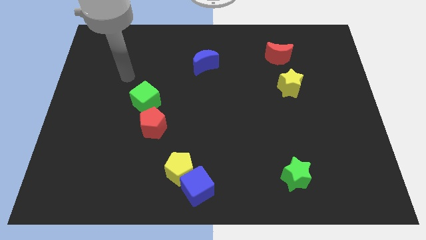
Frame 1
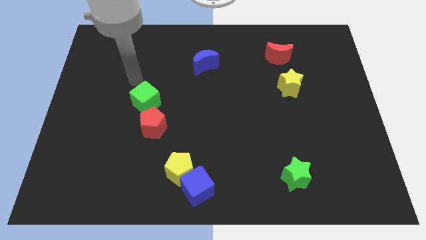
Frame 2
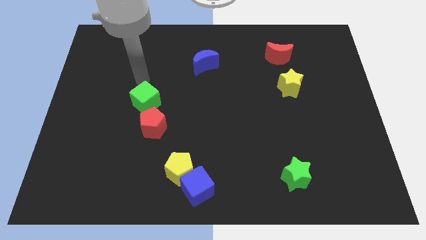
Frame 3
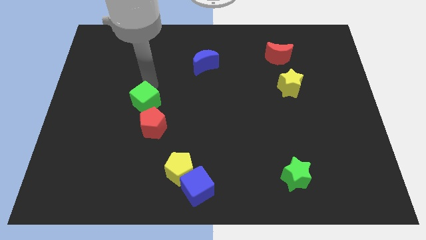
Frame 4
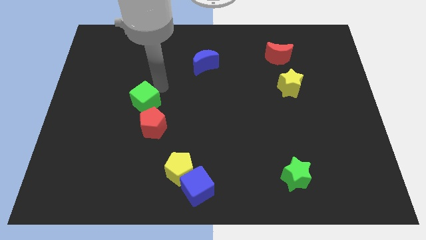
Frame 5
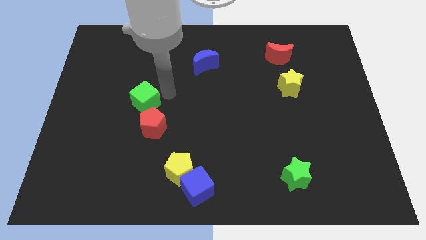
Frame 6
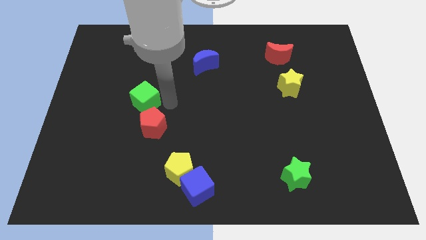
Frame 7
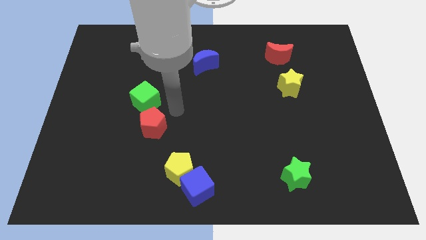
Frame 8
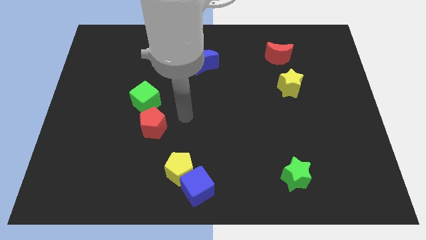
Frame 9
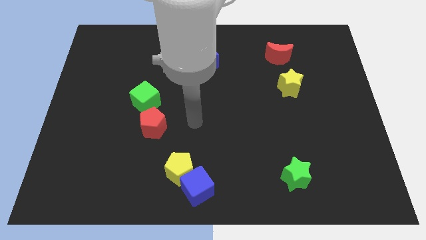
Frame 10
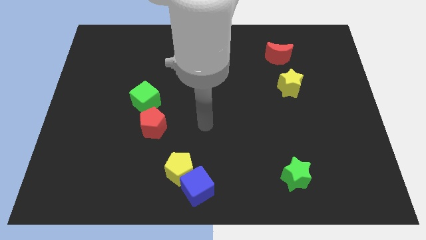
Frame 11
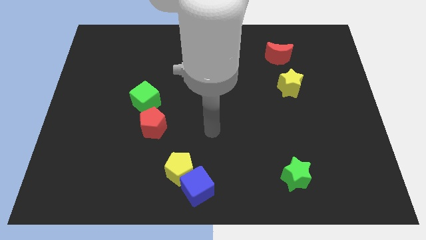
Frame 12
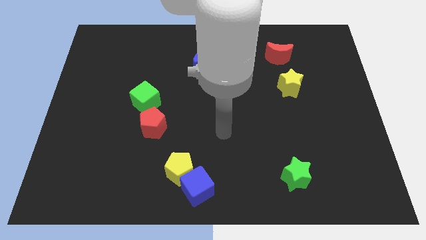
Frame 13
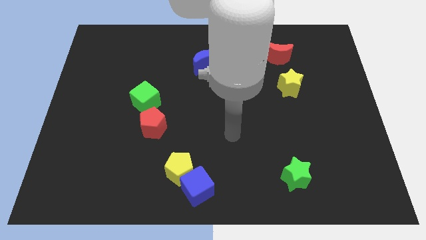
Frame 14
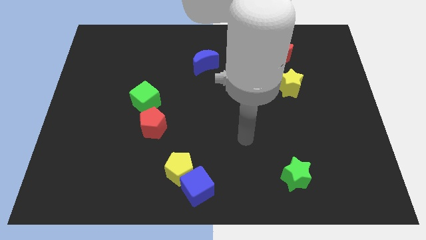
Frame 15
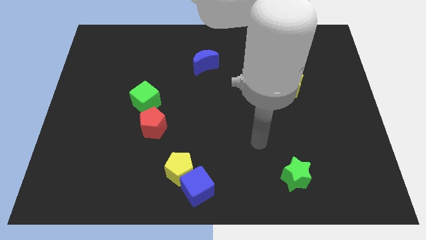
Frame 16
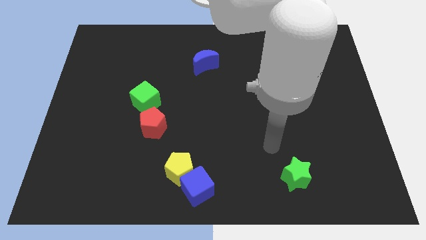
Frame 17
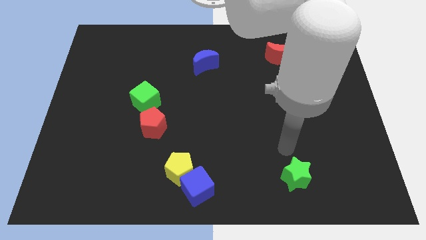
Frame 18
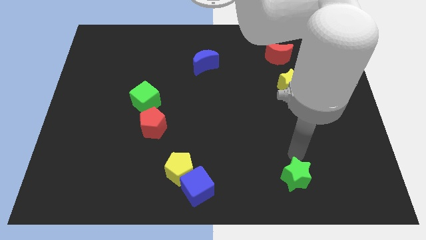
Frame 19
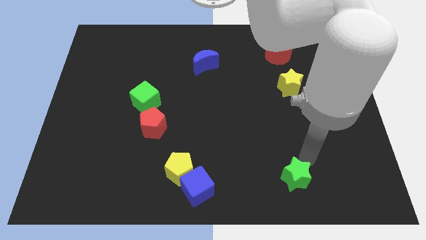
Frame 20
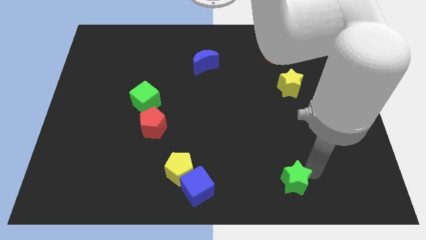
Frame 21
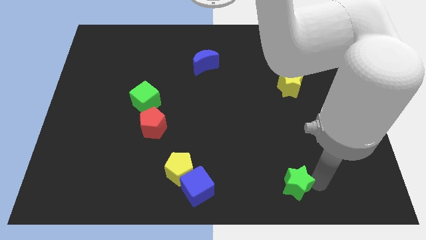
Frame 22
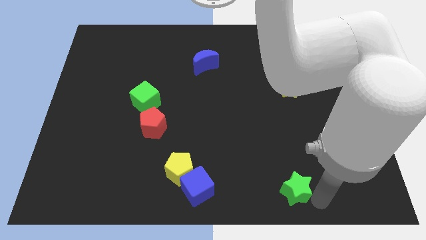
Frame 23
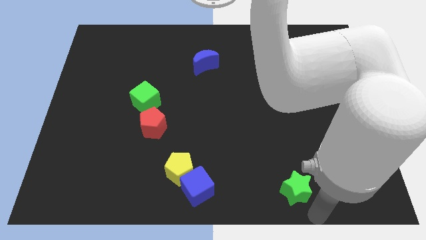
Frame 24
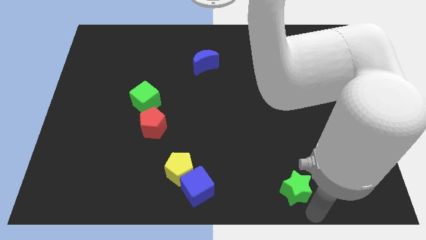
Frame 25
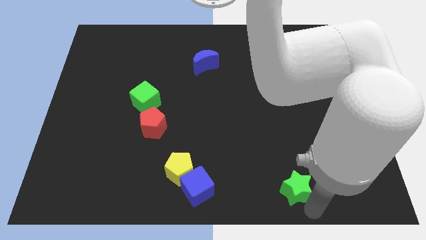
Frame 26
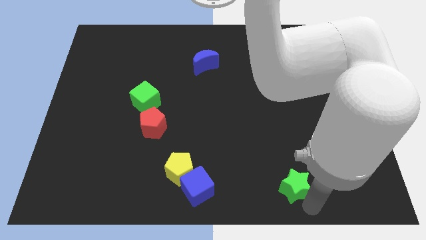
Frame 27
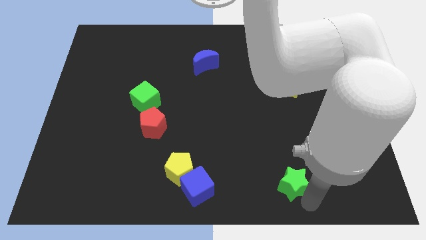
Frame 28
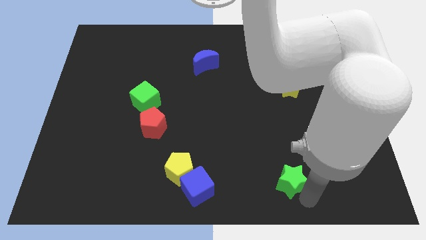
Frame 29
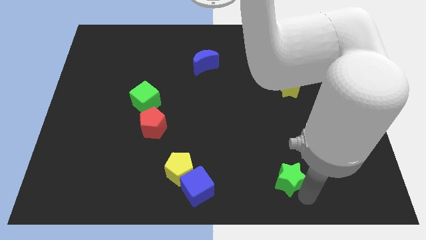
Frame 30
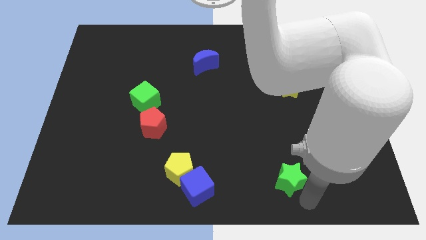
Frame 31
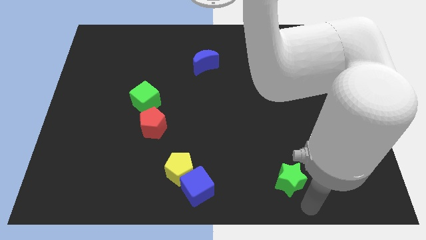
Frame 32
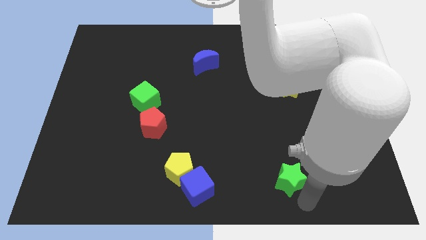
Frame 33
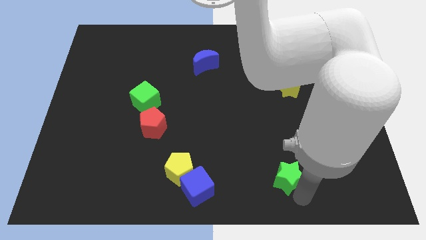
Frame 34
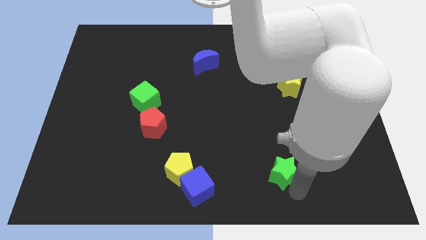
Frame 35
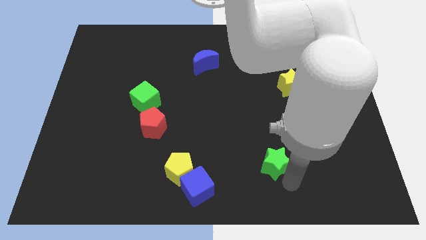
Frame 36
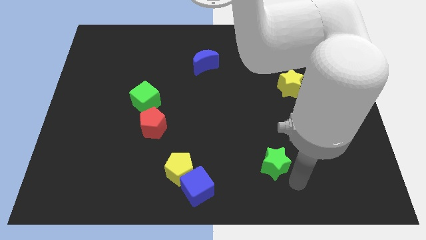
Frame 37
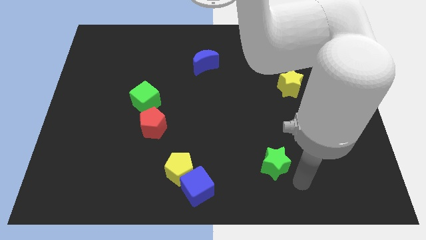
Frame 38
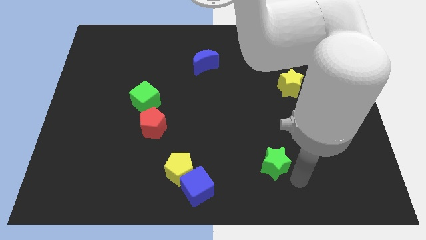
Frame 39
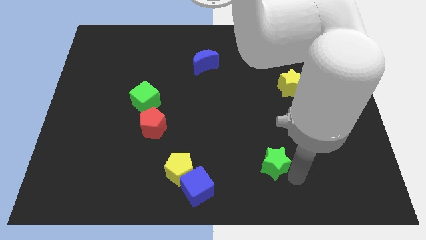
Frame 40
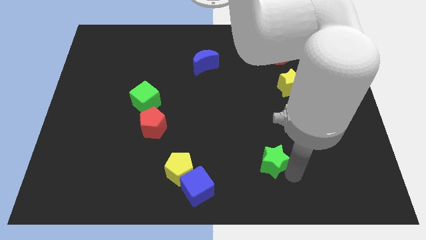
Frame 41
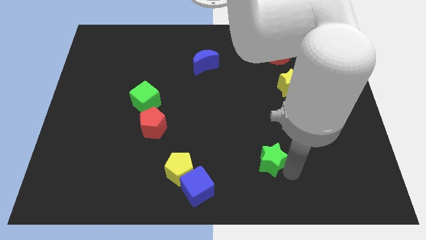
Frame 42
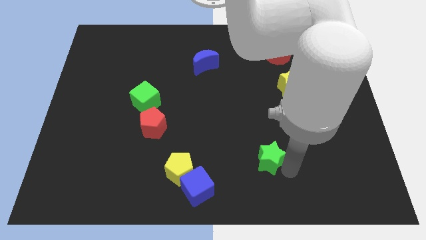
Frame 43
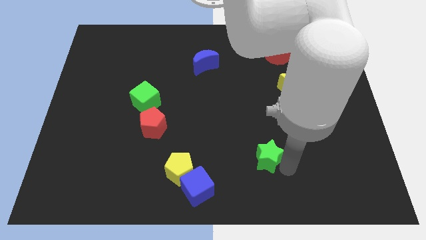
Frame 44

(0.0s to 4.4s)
slide the green star up and left diagonally a little

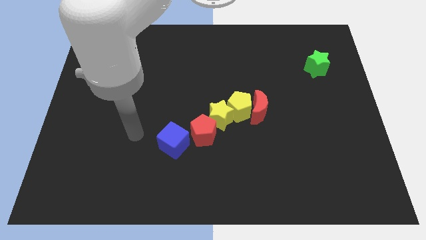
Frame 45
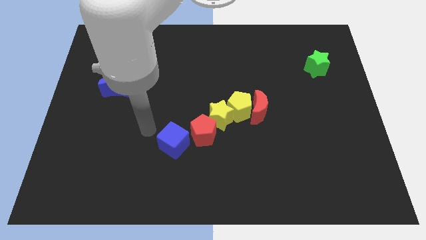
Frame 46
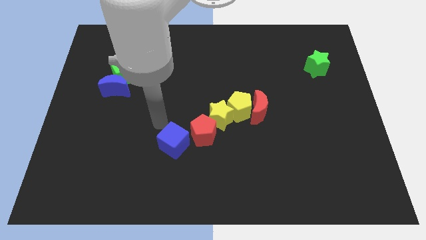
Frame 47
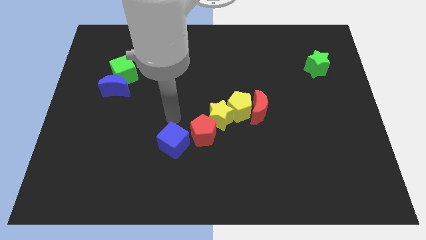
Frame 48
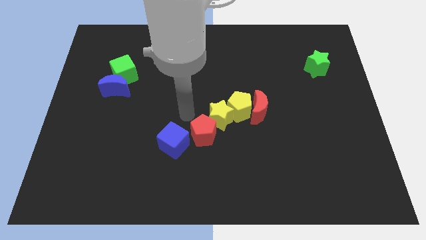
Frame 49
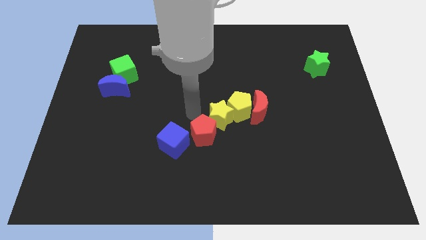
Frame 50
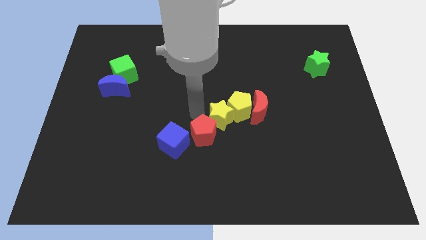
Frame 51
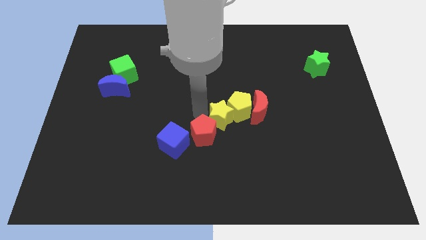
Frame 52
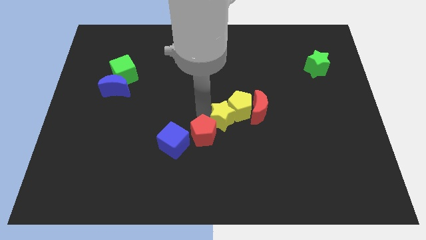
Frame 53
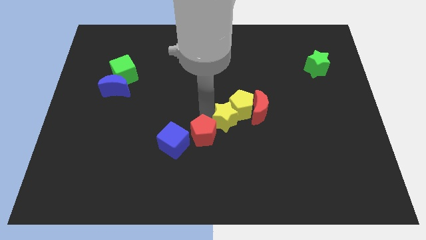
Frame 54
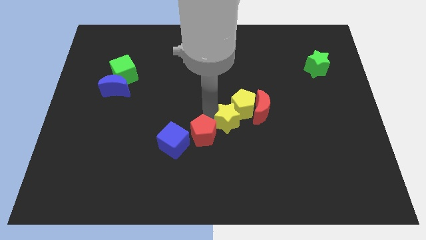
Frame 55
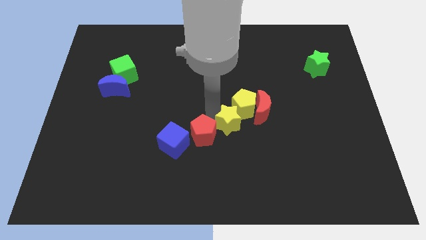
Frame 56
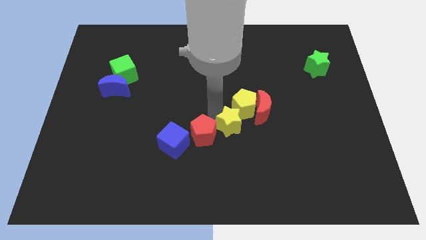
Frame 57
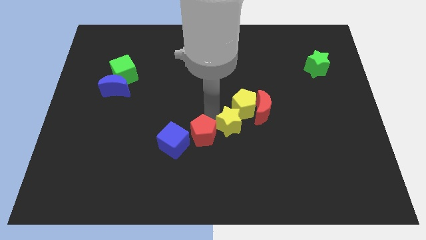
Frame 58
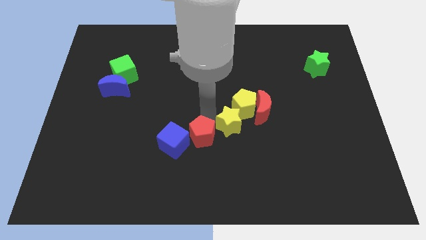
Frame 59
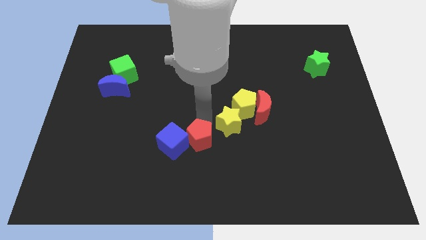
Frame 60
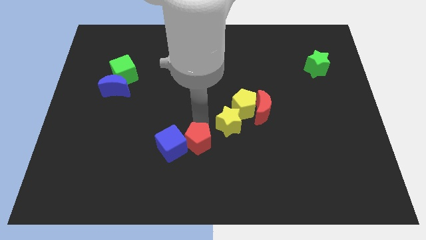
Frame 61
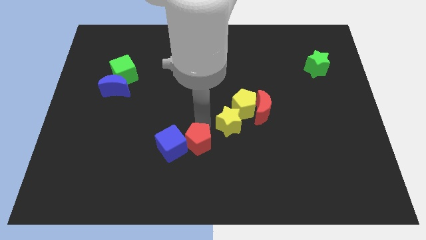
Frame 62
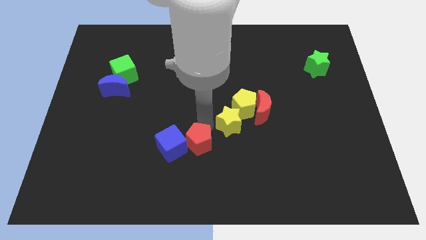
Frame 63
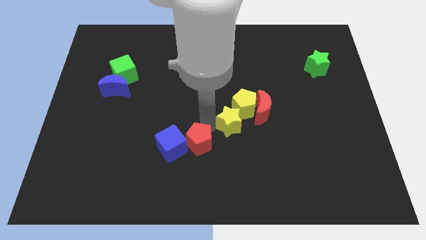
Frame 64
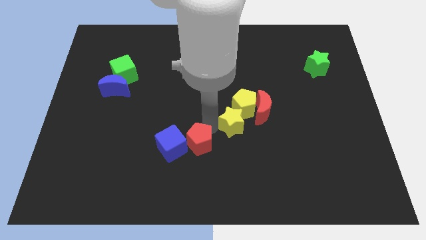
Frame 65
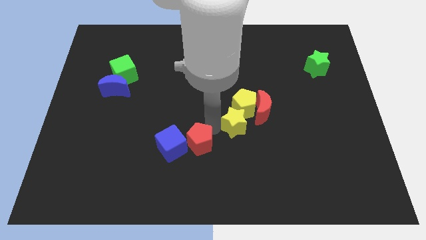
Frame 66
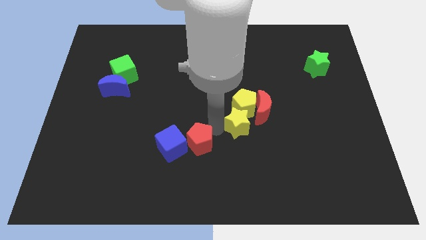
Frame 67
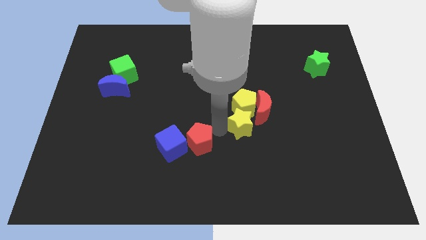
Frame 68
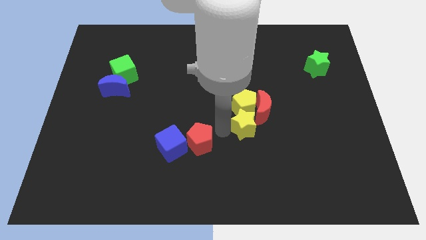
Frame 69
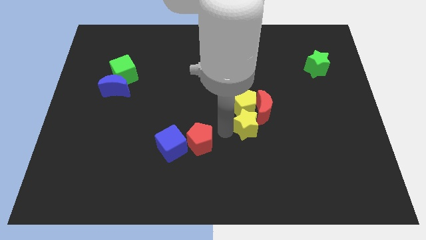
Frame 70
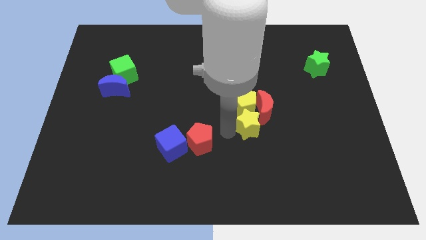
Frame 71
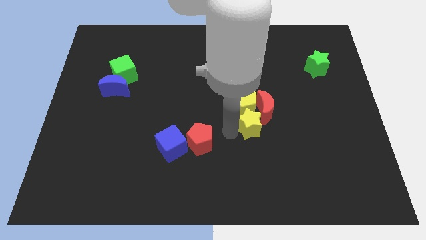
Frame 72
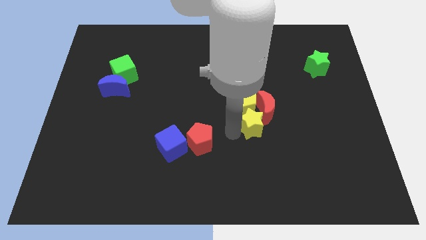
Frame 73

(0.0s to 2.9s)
push the yellow star to the right a little bit

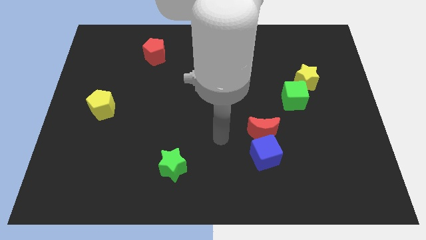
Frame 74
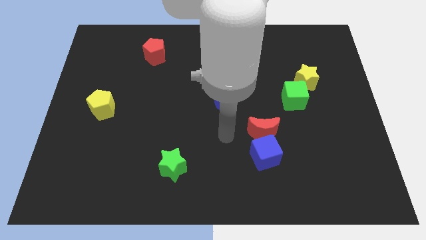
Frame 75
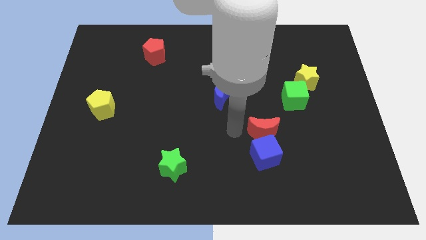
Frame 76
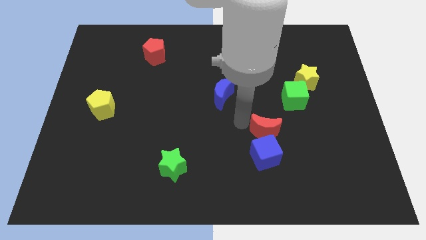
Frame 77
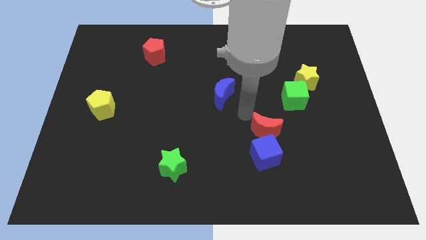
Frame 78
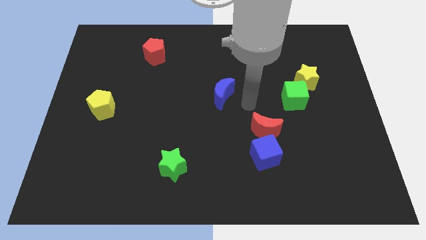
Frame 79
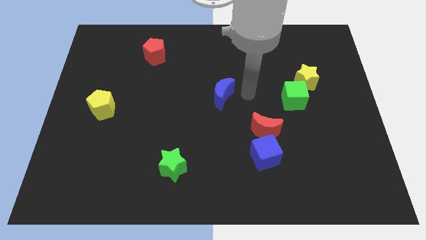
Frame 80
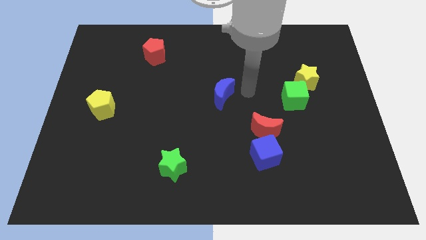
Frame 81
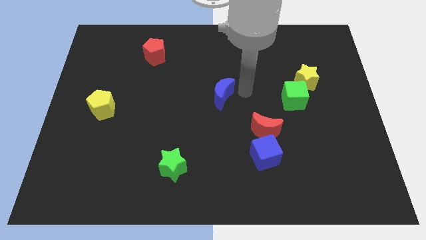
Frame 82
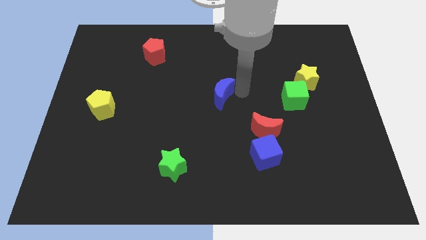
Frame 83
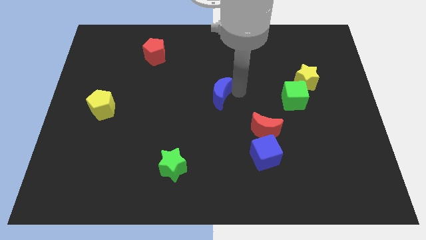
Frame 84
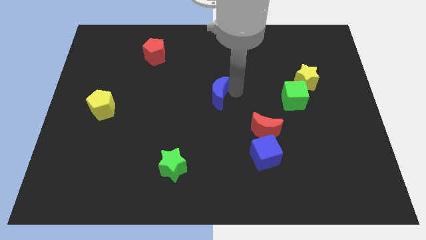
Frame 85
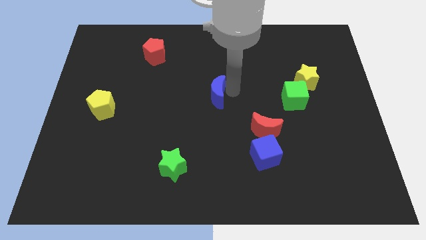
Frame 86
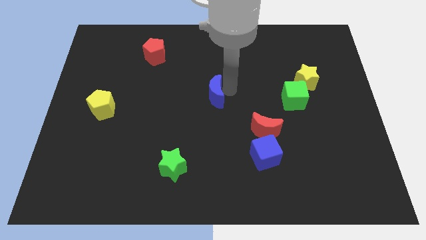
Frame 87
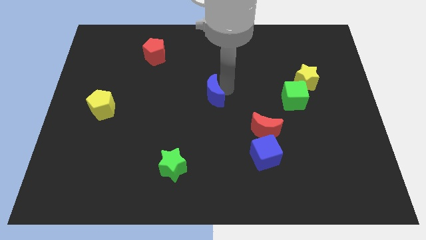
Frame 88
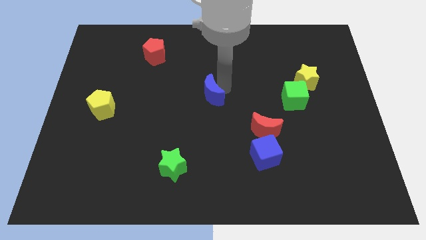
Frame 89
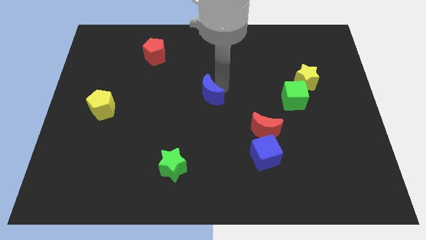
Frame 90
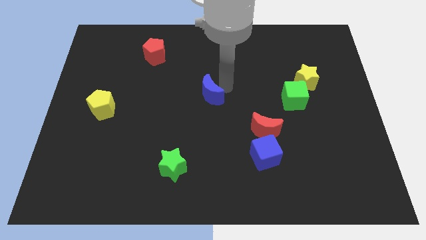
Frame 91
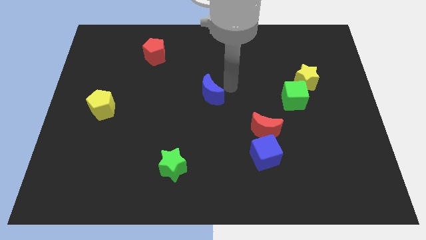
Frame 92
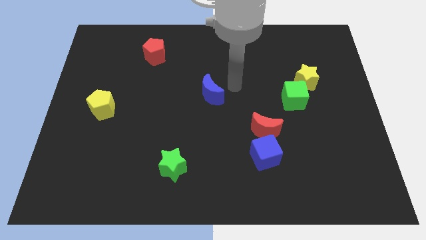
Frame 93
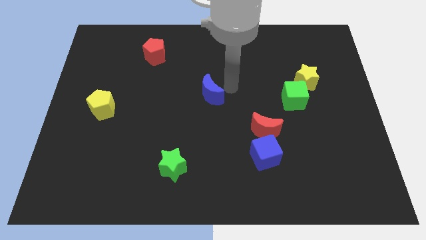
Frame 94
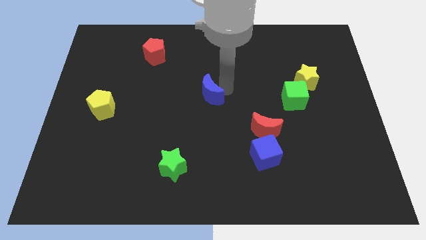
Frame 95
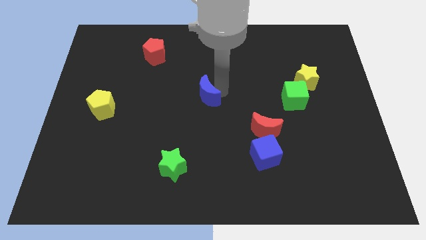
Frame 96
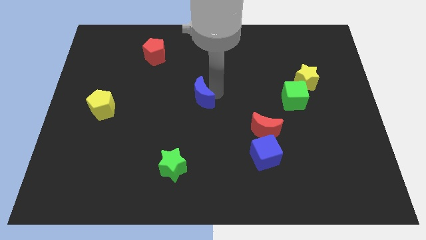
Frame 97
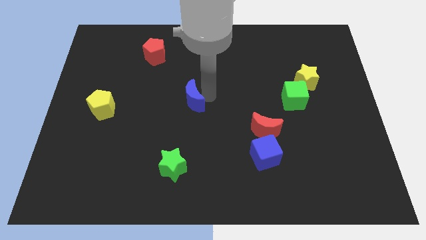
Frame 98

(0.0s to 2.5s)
slightly slide the blue moon left
